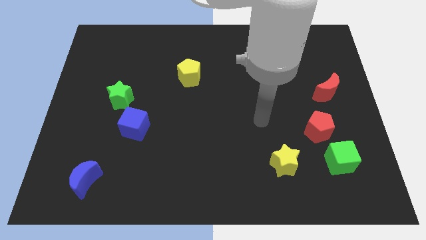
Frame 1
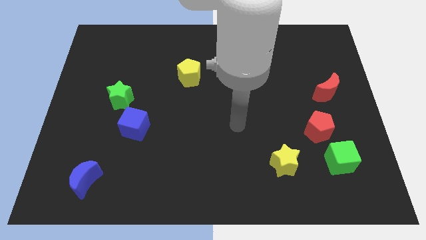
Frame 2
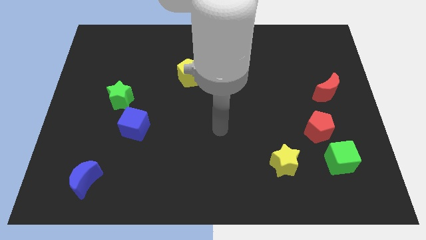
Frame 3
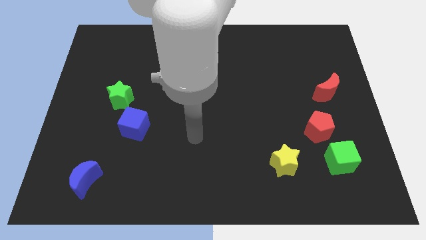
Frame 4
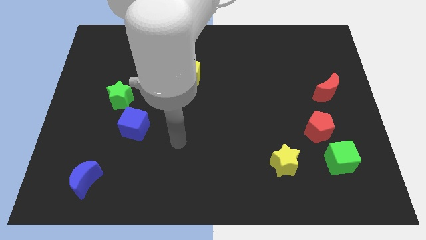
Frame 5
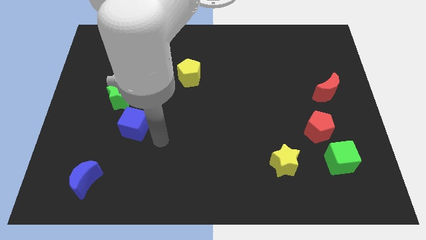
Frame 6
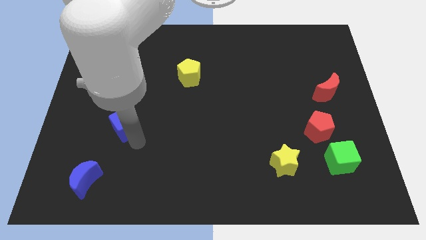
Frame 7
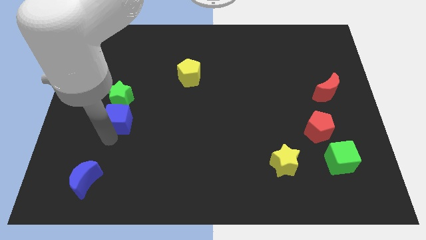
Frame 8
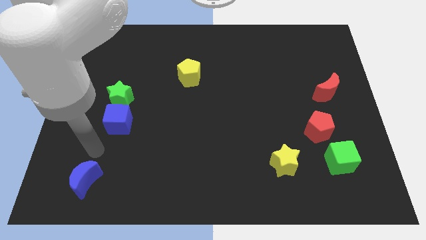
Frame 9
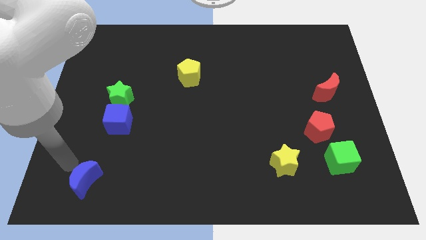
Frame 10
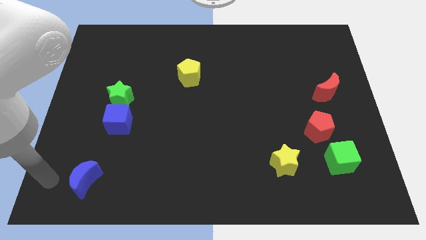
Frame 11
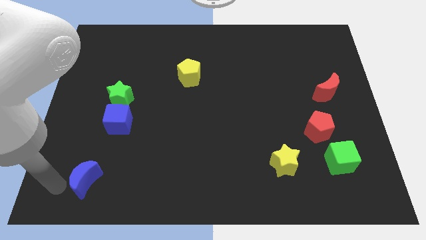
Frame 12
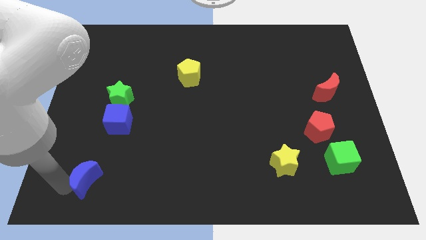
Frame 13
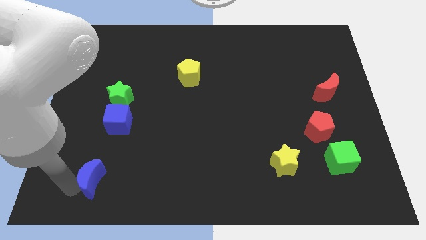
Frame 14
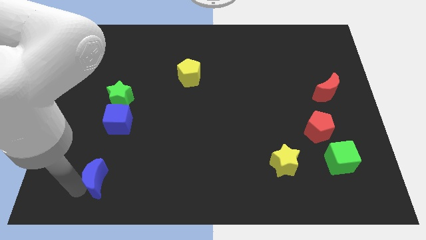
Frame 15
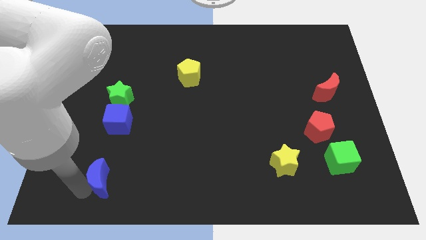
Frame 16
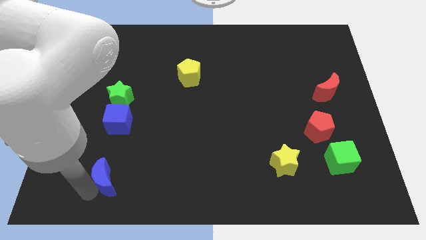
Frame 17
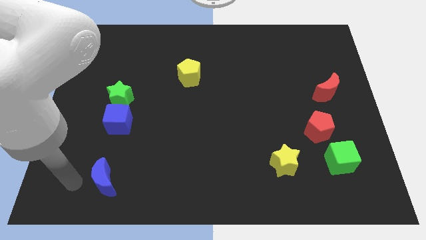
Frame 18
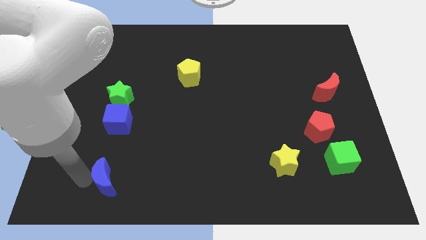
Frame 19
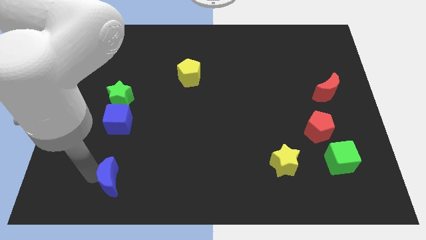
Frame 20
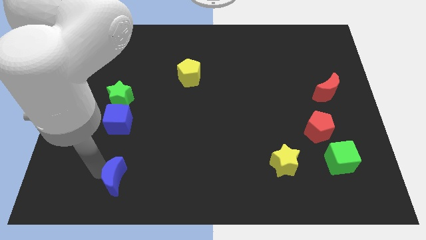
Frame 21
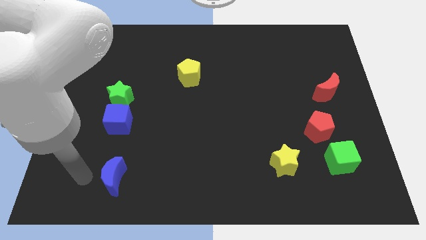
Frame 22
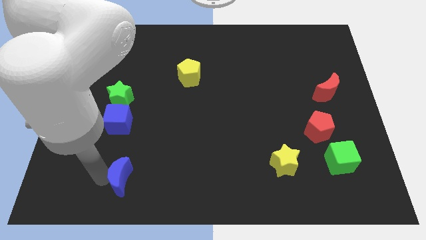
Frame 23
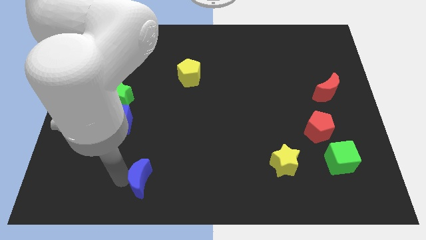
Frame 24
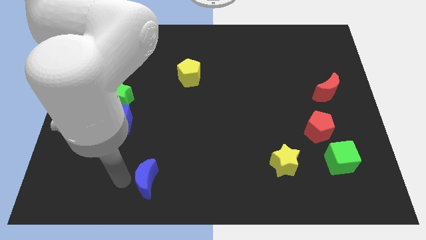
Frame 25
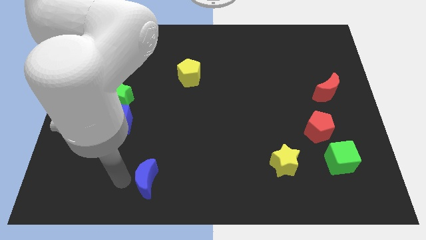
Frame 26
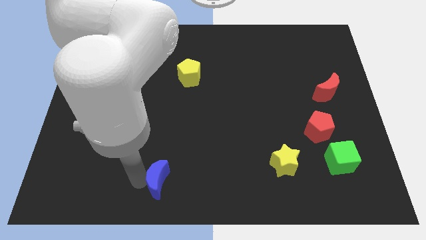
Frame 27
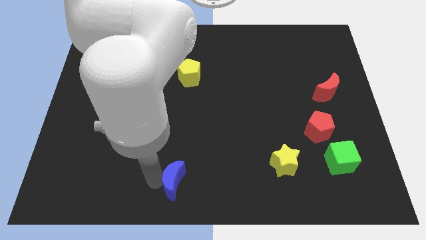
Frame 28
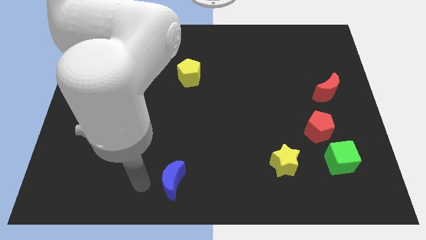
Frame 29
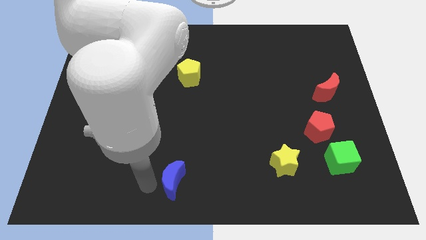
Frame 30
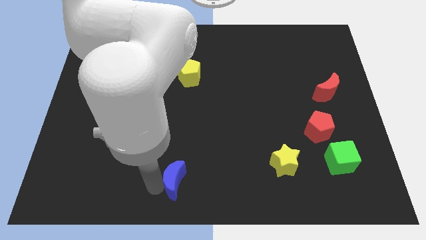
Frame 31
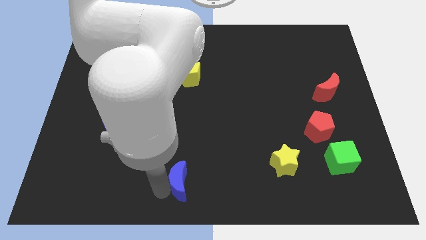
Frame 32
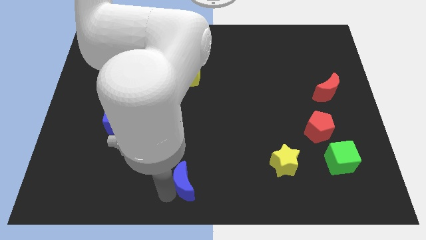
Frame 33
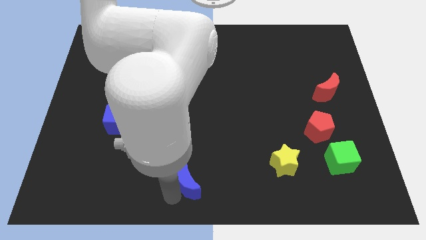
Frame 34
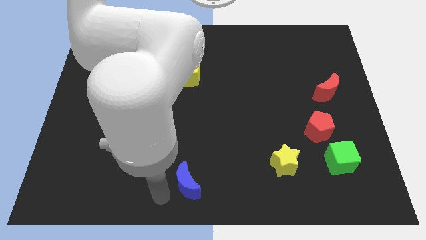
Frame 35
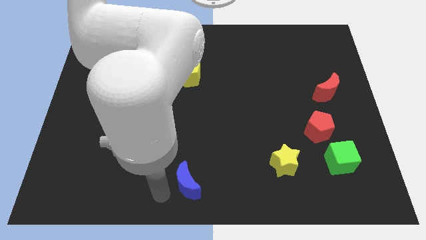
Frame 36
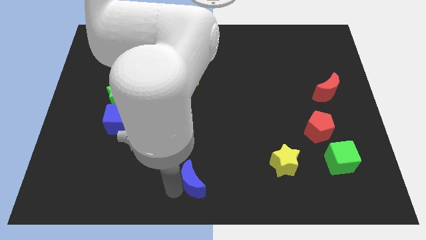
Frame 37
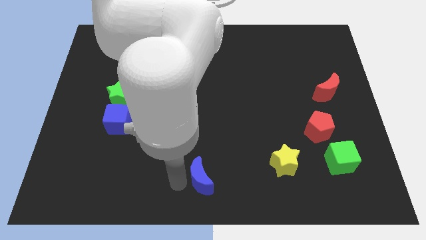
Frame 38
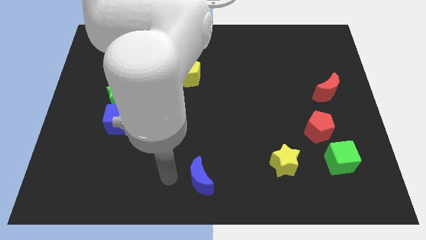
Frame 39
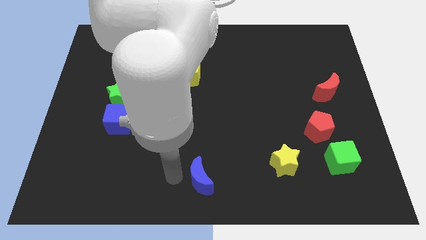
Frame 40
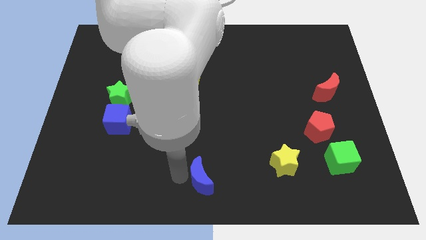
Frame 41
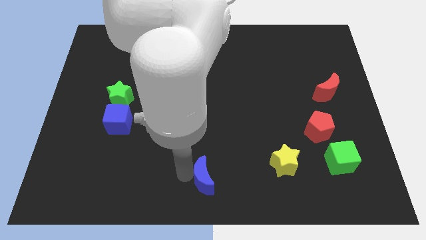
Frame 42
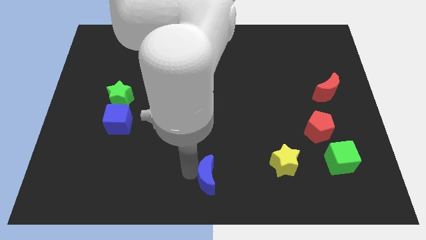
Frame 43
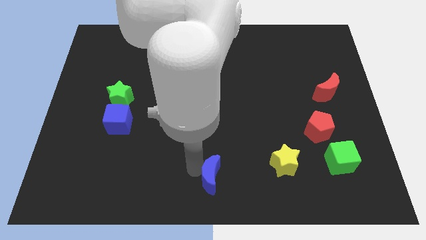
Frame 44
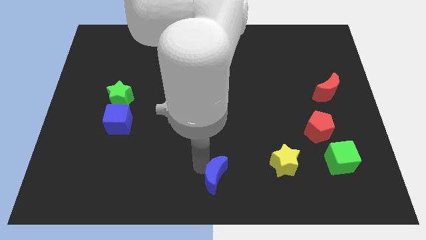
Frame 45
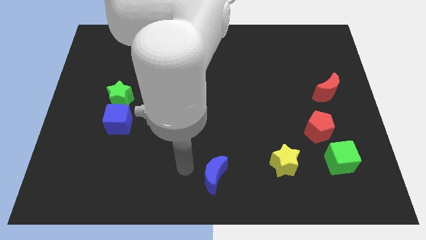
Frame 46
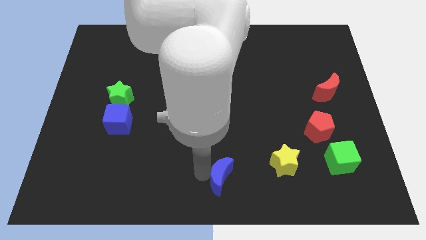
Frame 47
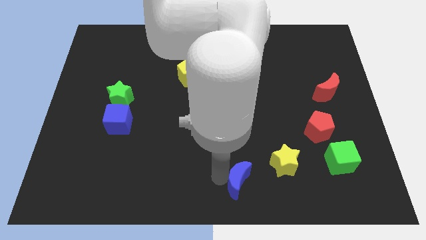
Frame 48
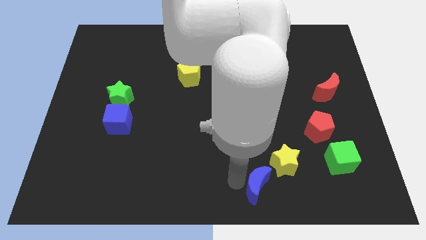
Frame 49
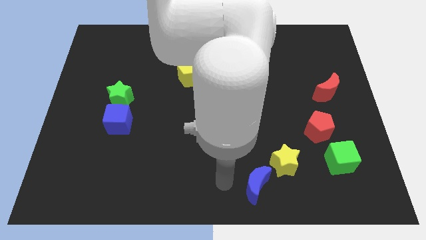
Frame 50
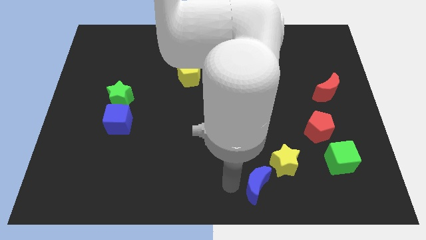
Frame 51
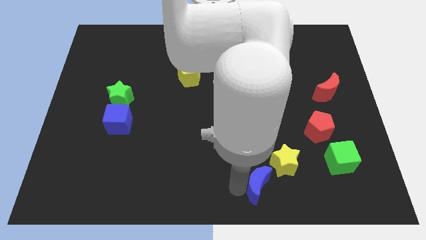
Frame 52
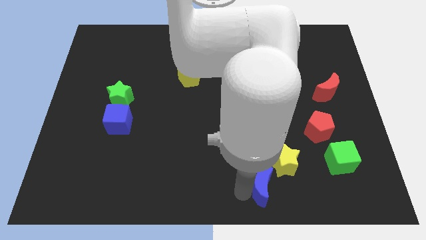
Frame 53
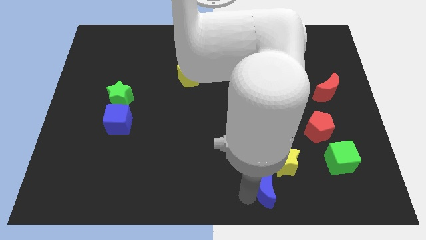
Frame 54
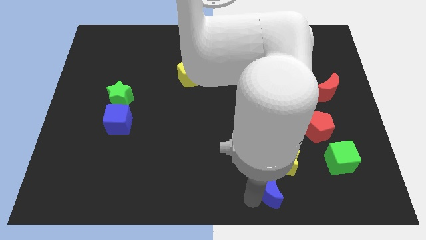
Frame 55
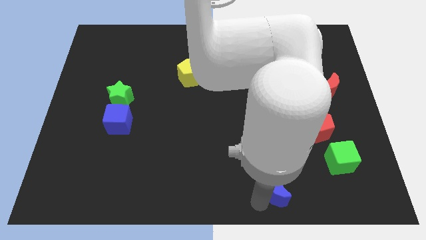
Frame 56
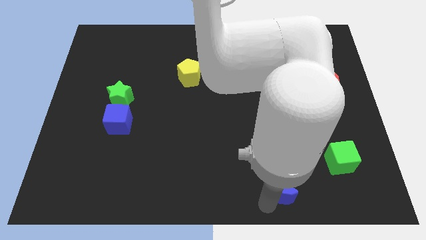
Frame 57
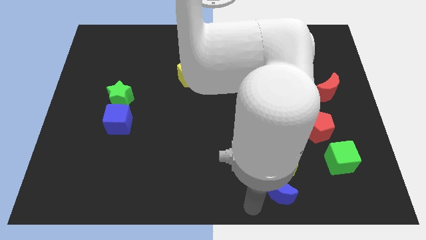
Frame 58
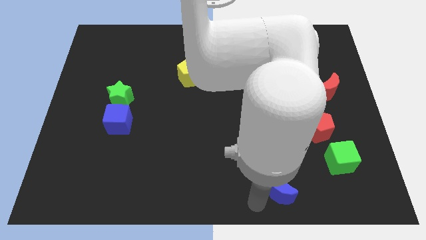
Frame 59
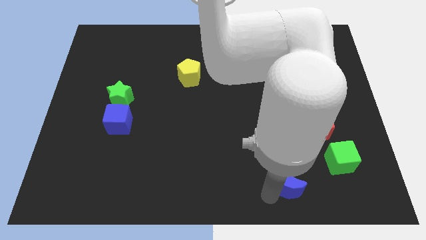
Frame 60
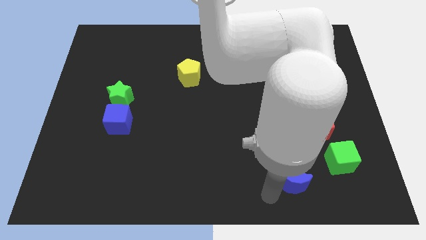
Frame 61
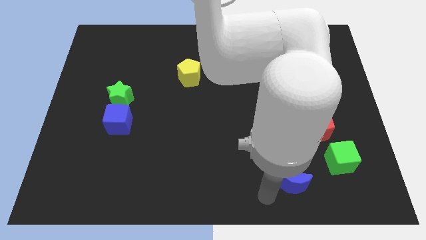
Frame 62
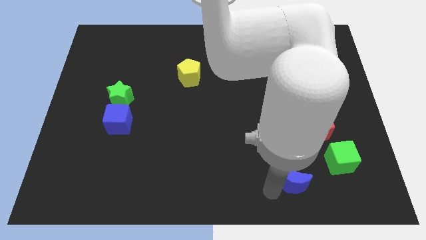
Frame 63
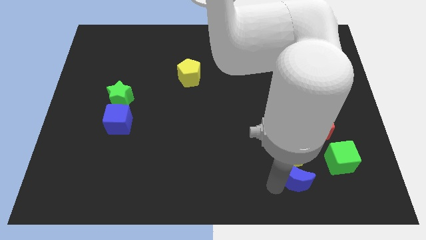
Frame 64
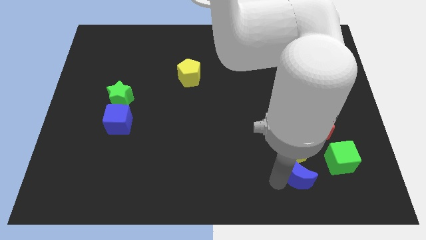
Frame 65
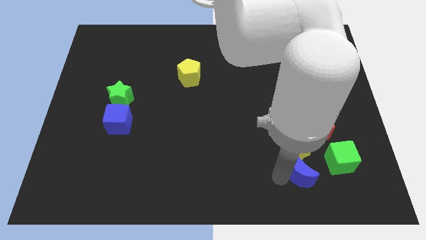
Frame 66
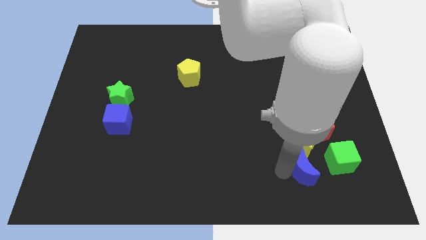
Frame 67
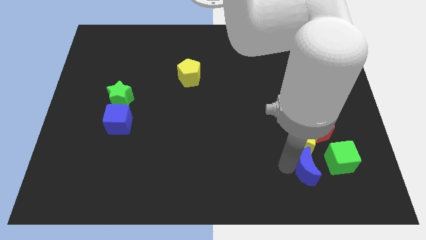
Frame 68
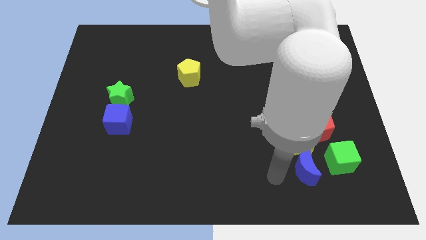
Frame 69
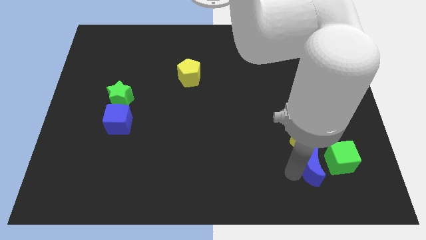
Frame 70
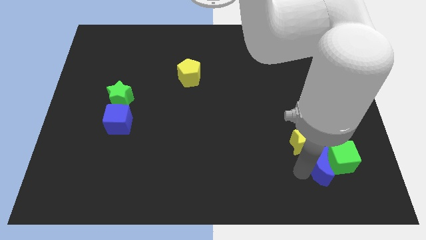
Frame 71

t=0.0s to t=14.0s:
slide the blue moon close to the green cube

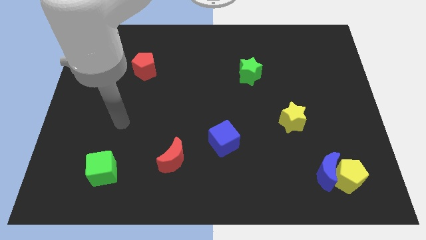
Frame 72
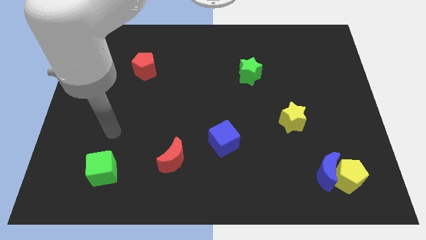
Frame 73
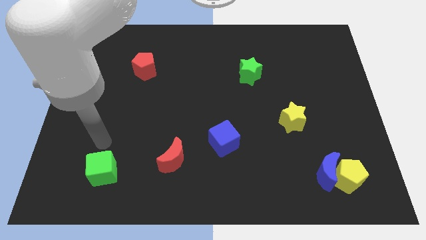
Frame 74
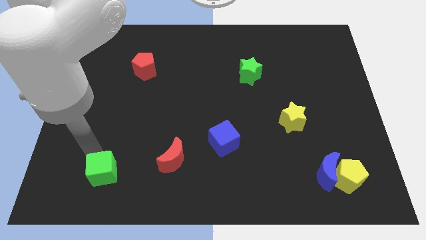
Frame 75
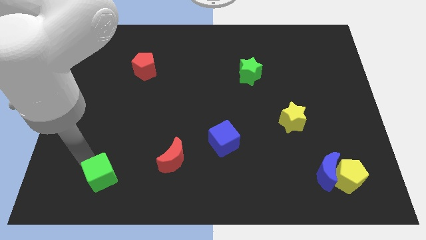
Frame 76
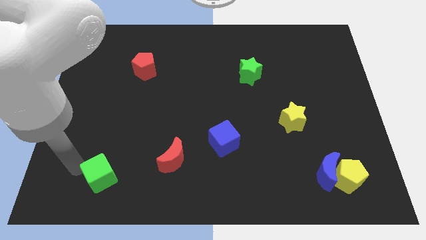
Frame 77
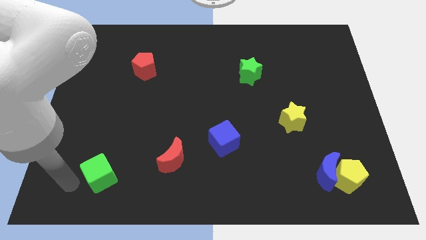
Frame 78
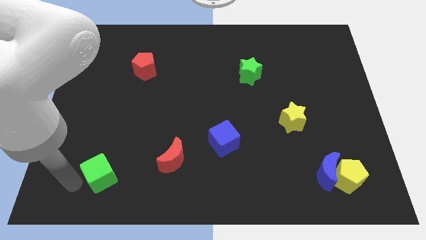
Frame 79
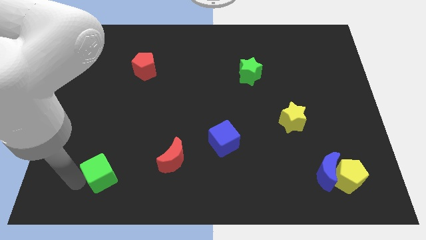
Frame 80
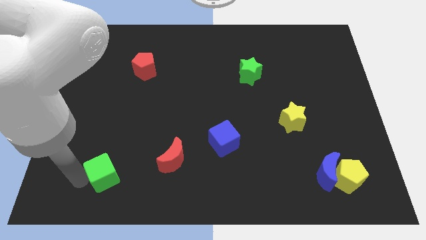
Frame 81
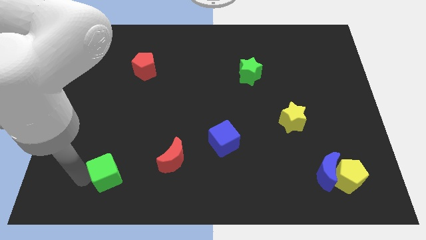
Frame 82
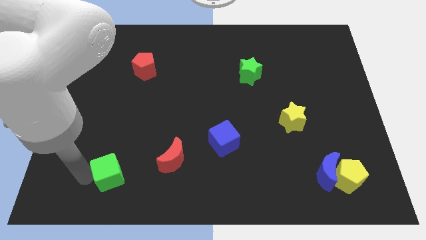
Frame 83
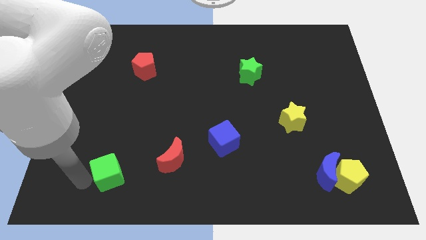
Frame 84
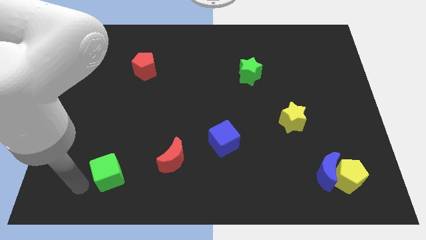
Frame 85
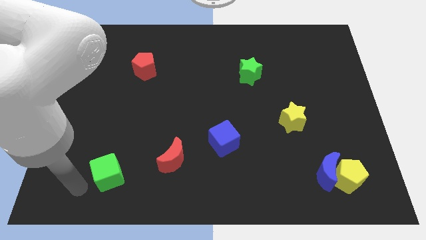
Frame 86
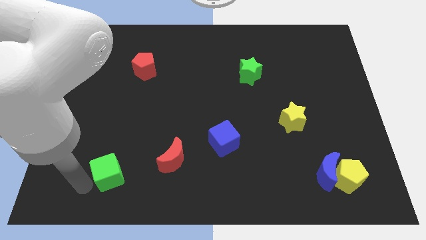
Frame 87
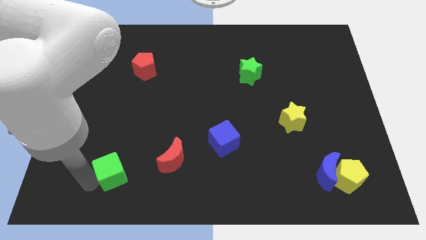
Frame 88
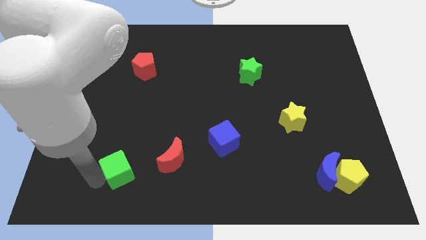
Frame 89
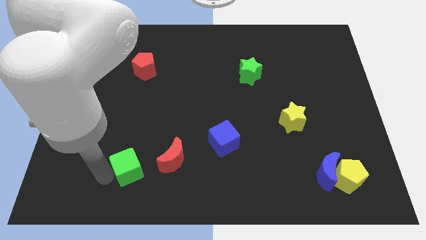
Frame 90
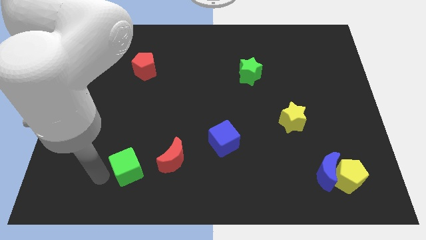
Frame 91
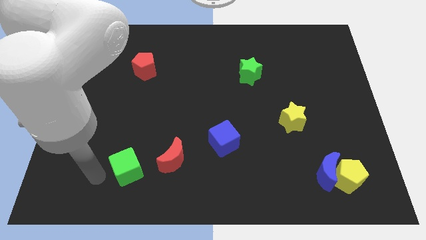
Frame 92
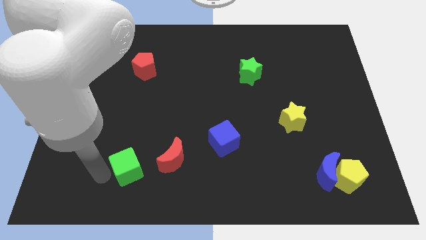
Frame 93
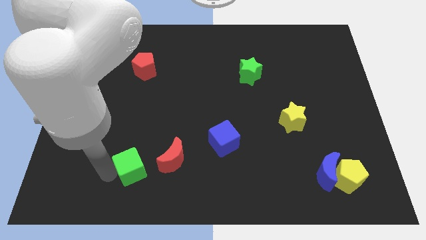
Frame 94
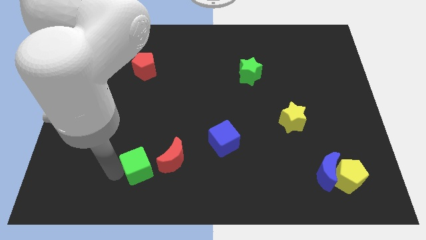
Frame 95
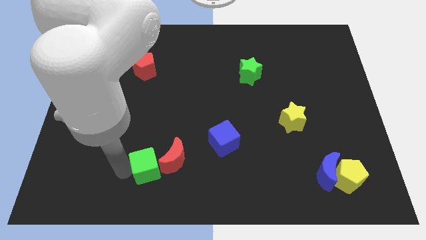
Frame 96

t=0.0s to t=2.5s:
slide the green cube to the red moon
